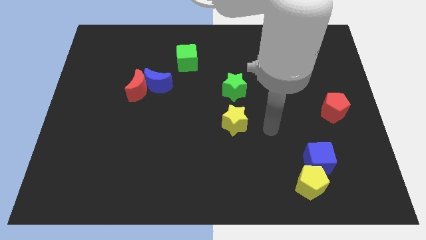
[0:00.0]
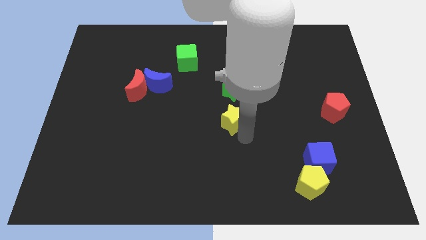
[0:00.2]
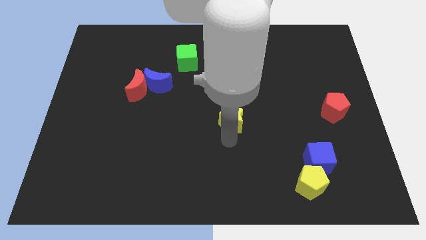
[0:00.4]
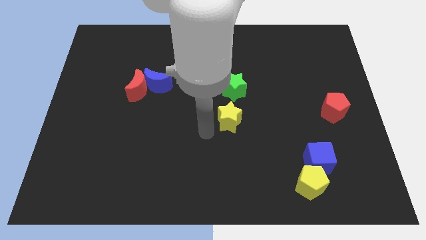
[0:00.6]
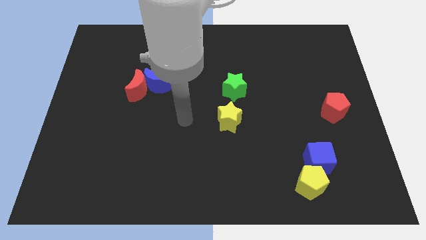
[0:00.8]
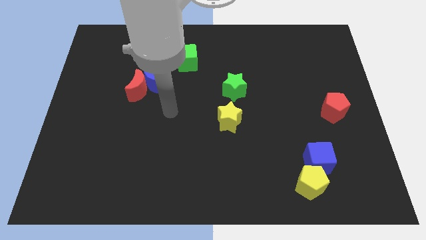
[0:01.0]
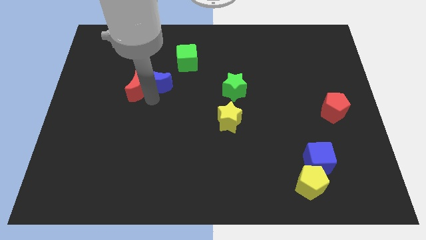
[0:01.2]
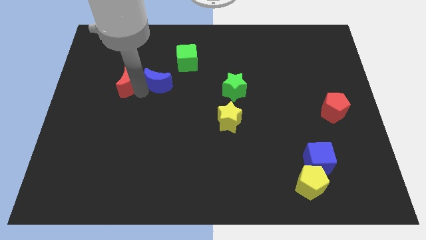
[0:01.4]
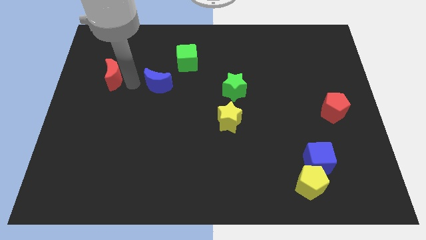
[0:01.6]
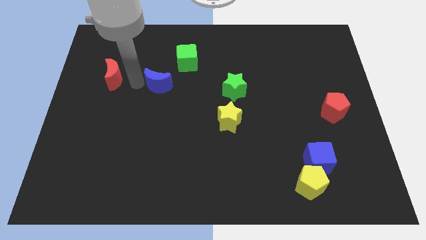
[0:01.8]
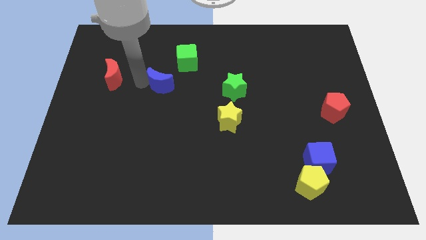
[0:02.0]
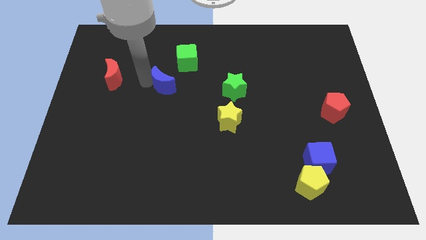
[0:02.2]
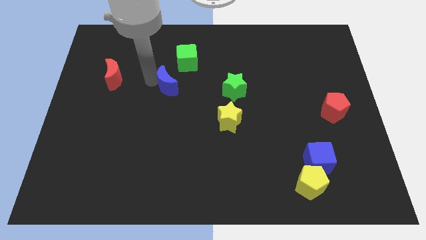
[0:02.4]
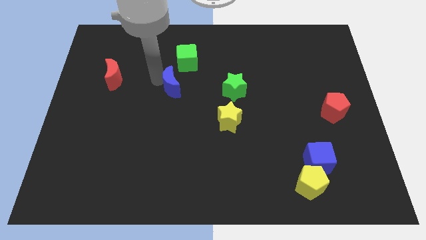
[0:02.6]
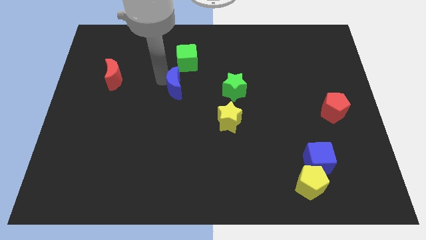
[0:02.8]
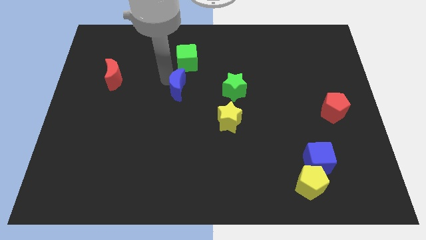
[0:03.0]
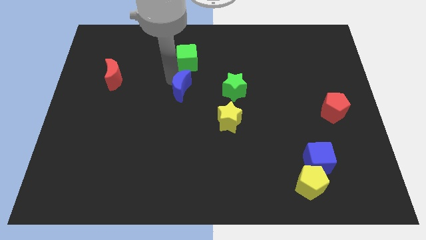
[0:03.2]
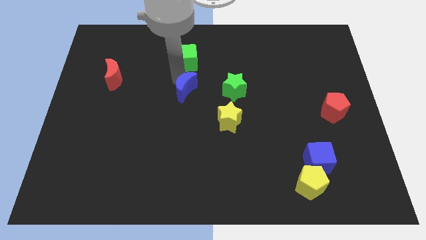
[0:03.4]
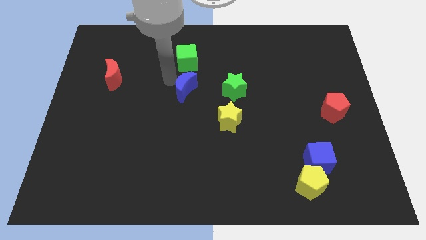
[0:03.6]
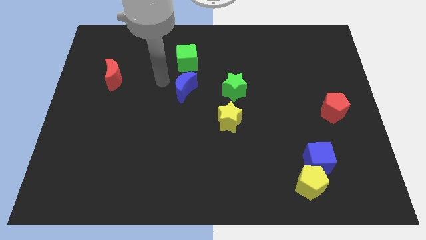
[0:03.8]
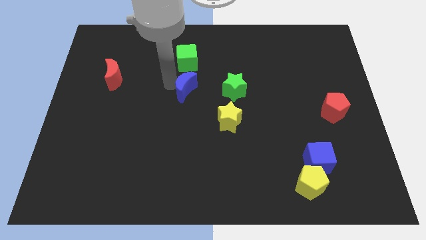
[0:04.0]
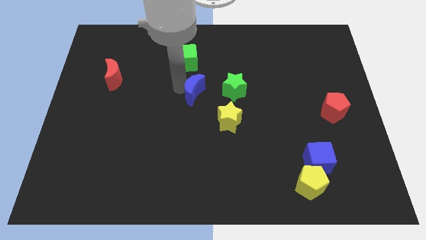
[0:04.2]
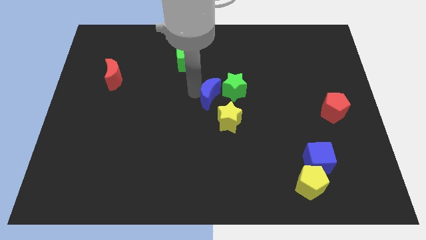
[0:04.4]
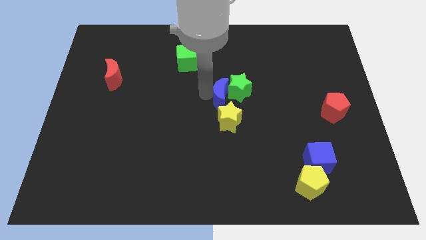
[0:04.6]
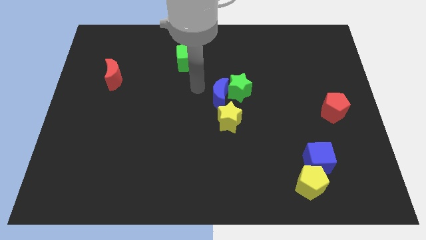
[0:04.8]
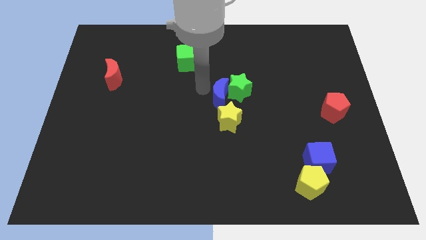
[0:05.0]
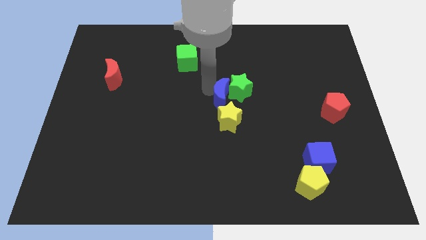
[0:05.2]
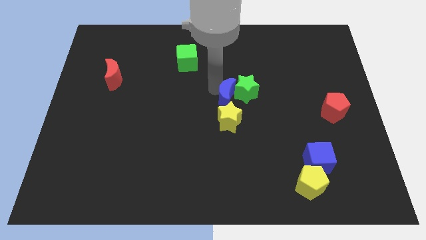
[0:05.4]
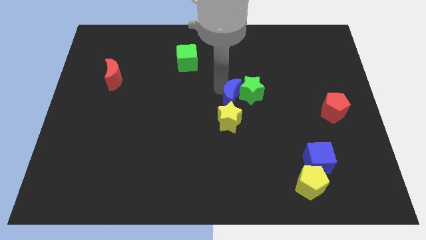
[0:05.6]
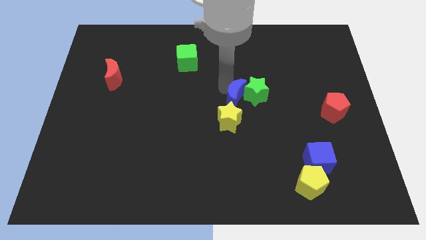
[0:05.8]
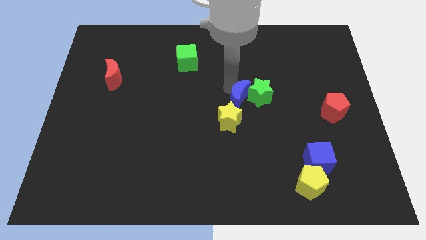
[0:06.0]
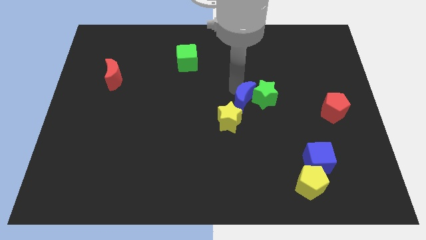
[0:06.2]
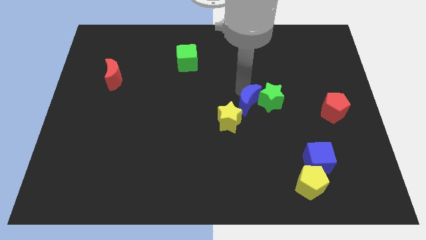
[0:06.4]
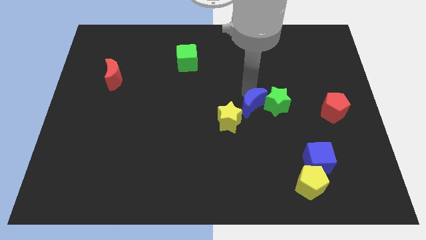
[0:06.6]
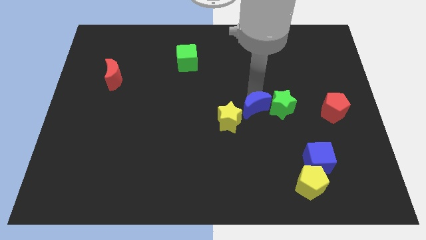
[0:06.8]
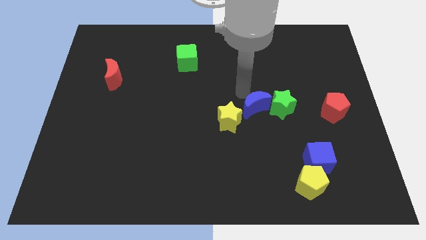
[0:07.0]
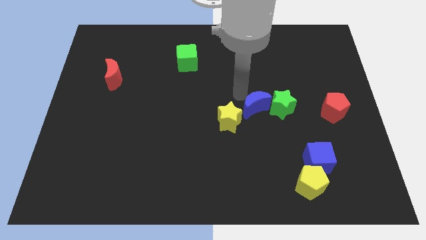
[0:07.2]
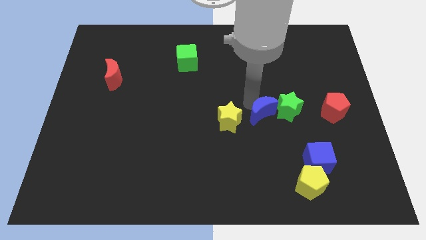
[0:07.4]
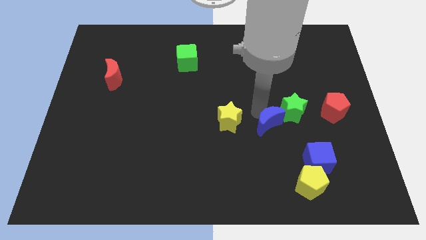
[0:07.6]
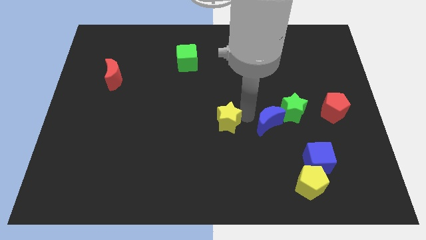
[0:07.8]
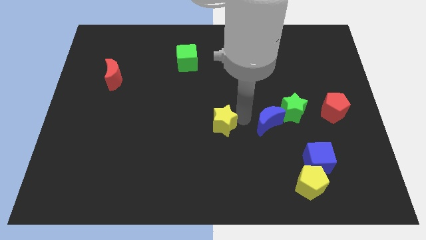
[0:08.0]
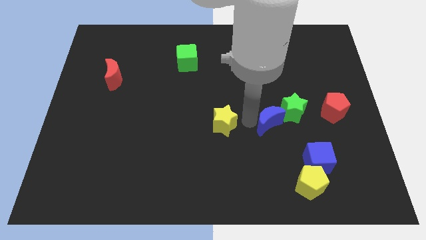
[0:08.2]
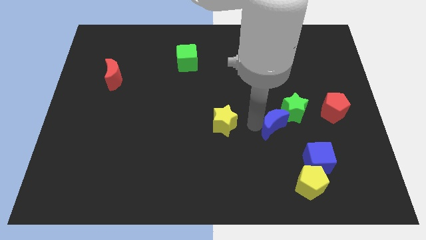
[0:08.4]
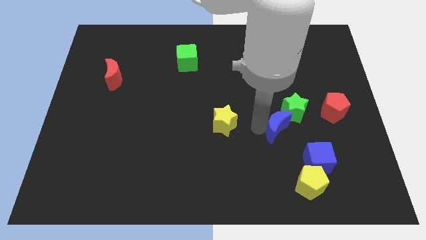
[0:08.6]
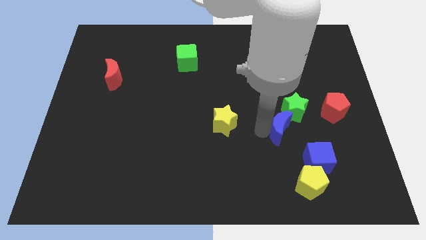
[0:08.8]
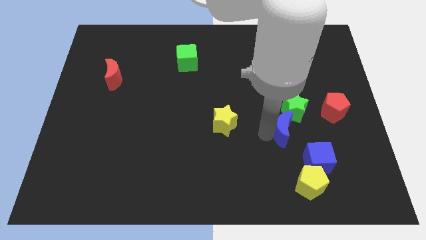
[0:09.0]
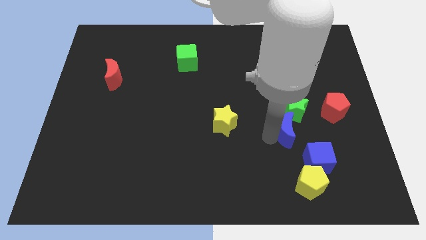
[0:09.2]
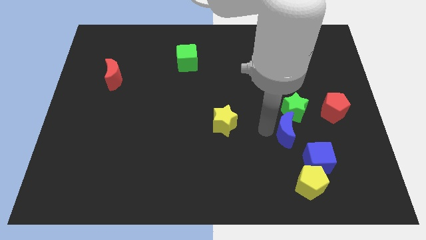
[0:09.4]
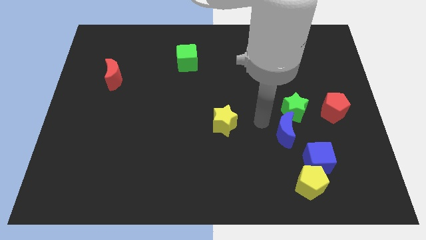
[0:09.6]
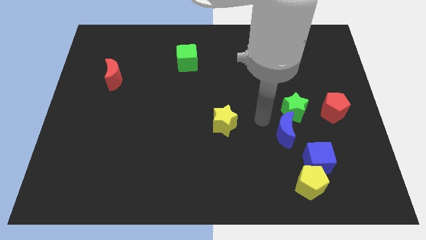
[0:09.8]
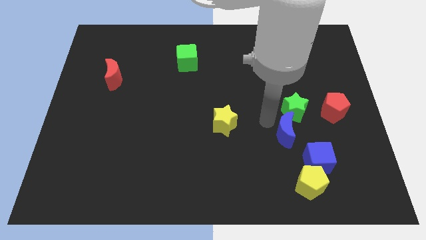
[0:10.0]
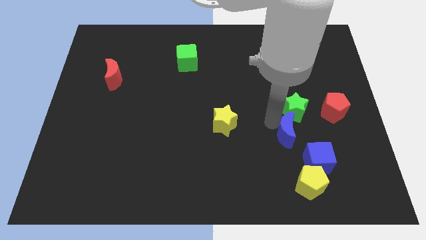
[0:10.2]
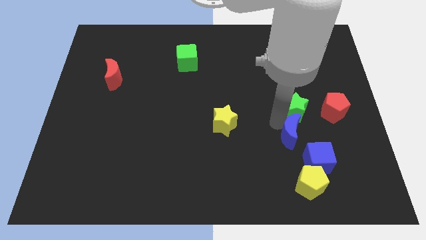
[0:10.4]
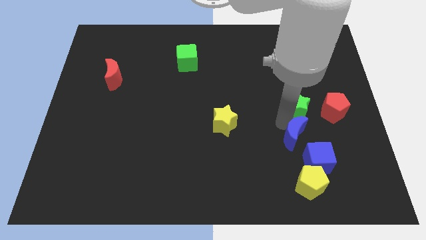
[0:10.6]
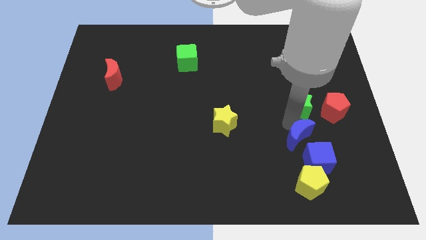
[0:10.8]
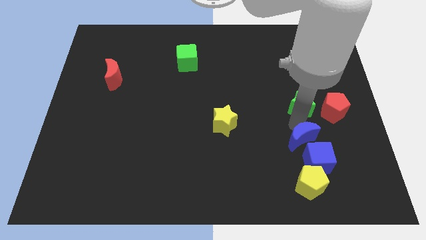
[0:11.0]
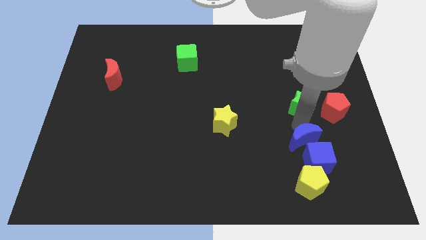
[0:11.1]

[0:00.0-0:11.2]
move the blue moon close to the blue cube

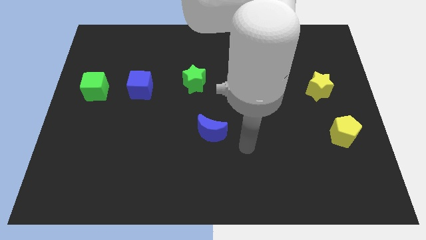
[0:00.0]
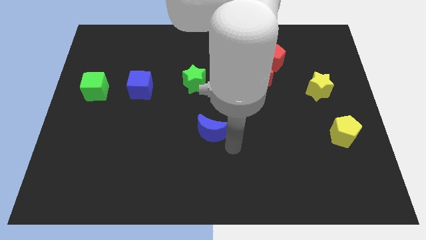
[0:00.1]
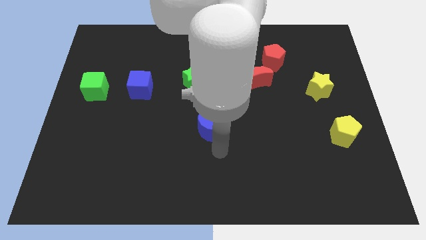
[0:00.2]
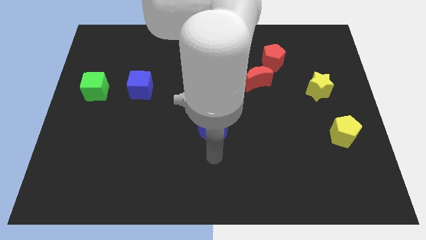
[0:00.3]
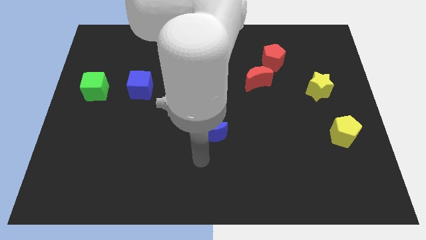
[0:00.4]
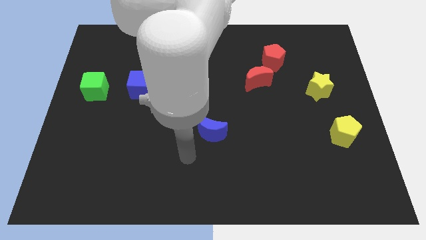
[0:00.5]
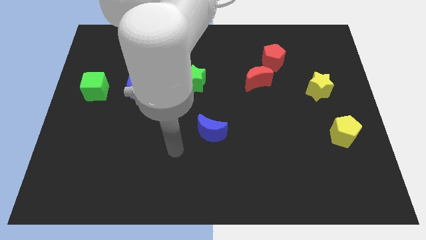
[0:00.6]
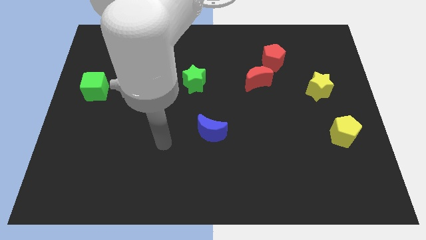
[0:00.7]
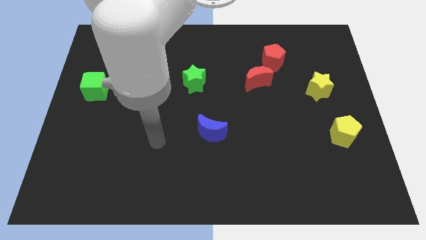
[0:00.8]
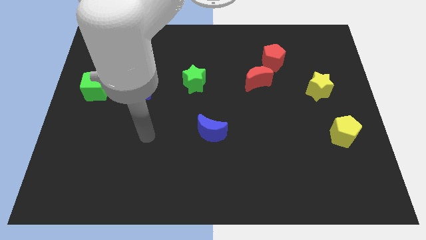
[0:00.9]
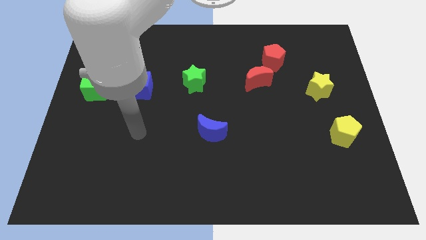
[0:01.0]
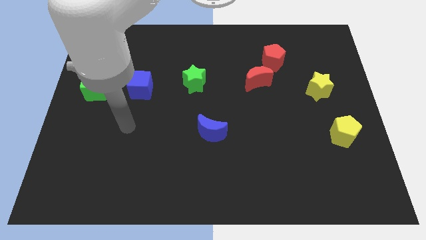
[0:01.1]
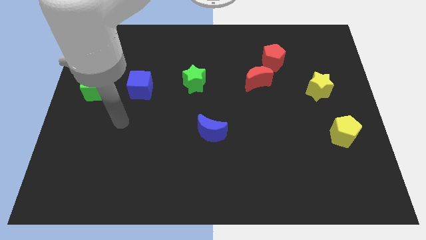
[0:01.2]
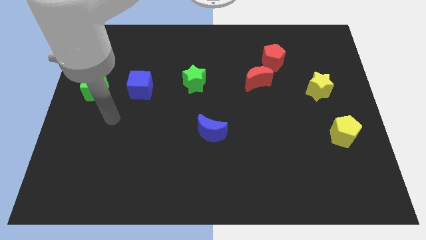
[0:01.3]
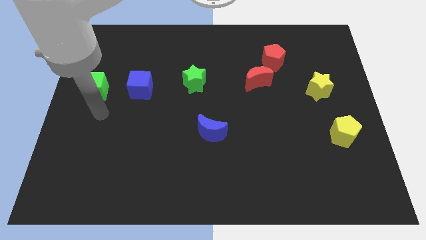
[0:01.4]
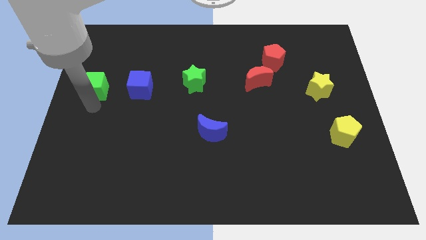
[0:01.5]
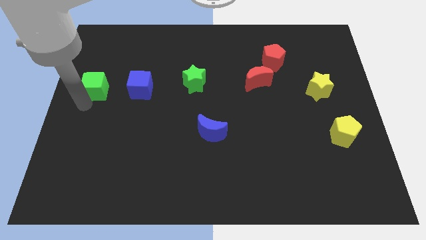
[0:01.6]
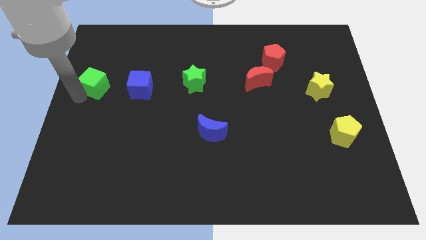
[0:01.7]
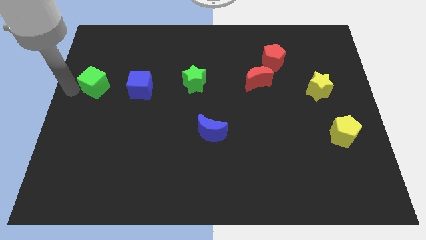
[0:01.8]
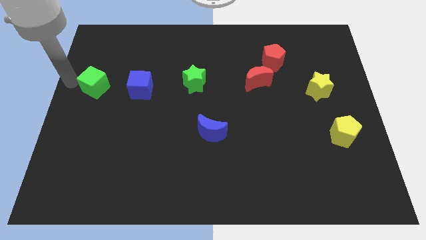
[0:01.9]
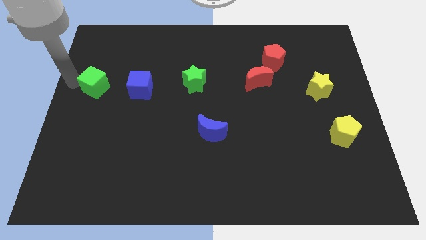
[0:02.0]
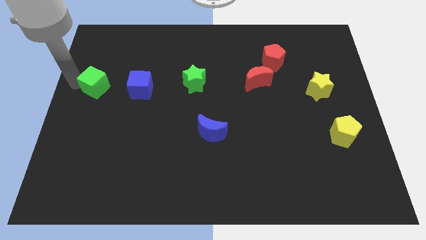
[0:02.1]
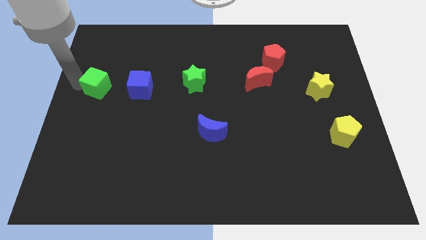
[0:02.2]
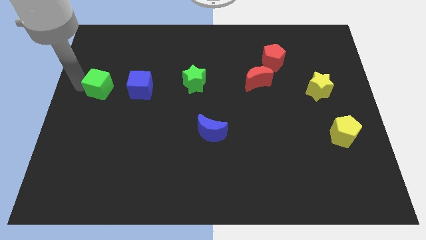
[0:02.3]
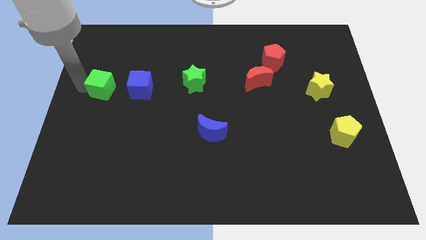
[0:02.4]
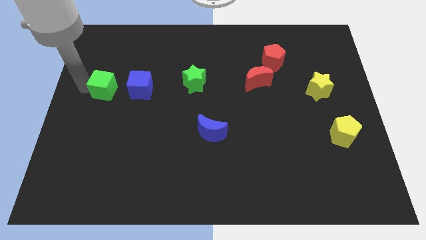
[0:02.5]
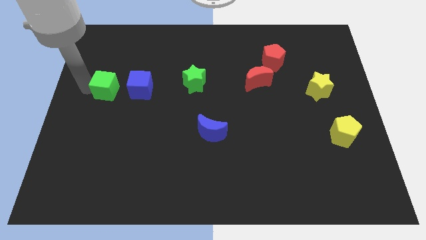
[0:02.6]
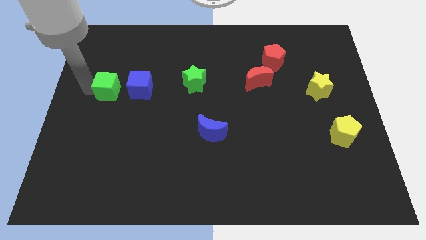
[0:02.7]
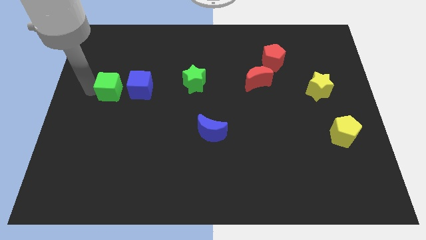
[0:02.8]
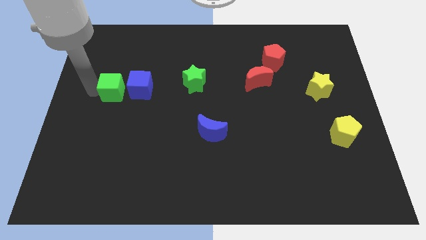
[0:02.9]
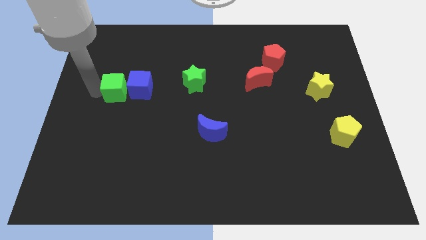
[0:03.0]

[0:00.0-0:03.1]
push the green cube towards the blue cube
